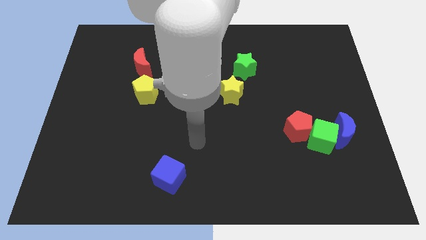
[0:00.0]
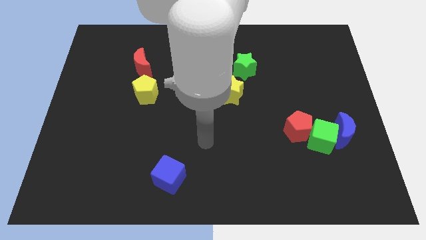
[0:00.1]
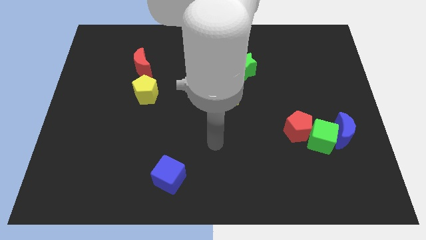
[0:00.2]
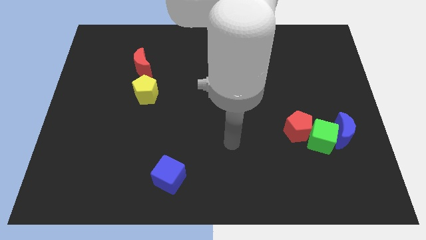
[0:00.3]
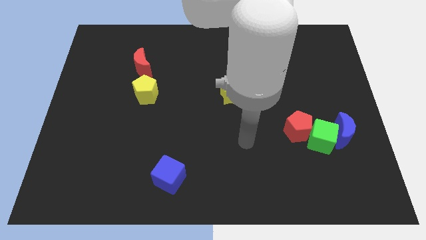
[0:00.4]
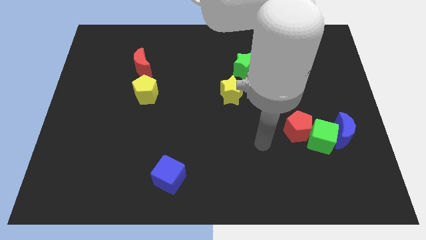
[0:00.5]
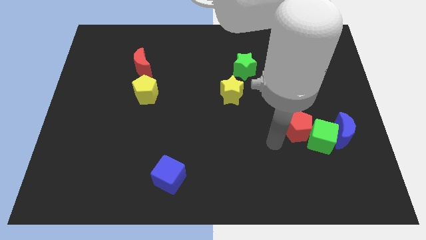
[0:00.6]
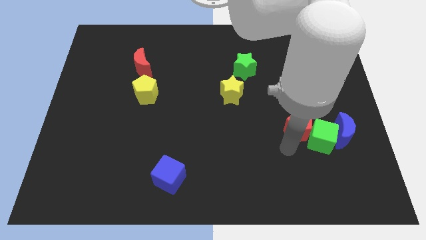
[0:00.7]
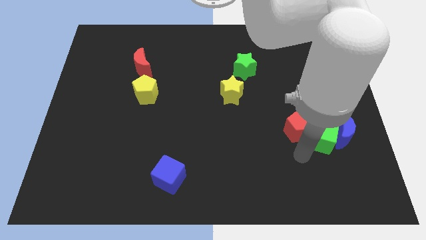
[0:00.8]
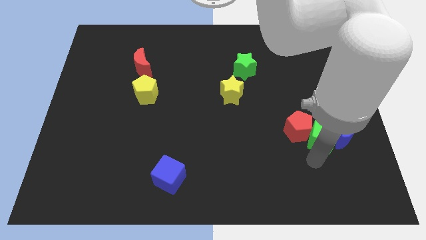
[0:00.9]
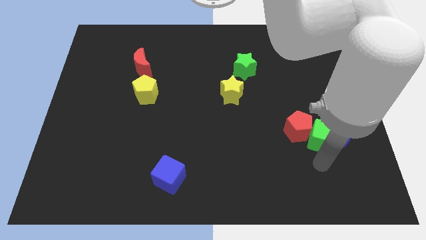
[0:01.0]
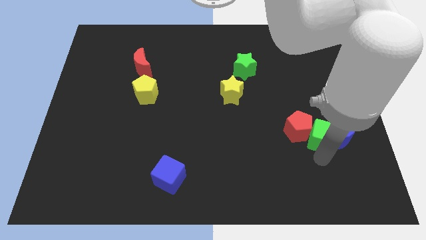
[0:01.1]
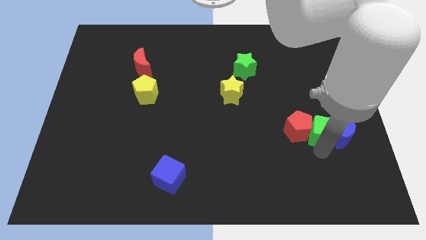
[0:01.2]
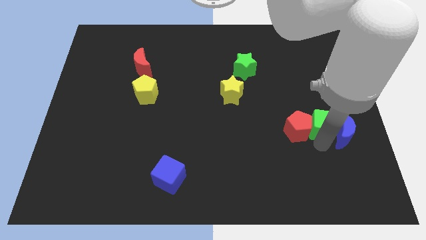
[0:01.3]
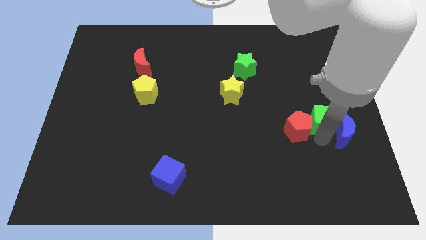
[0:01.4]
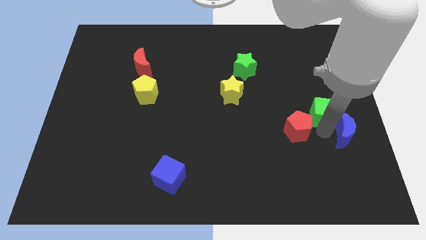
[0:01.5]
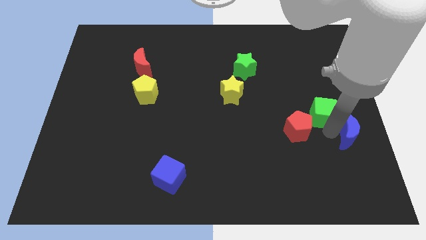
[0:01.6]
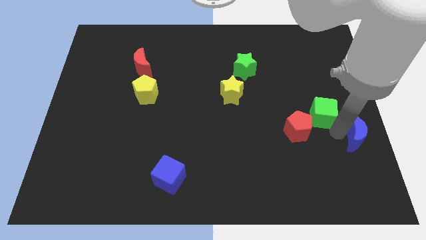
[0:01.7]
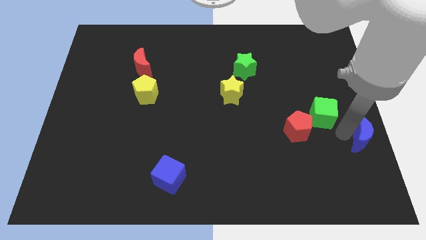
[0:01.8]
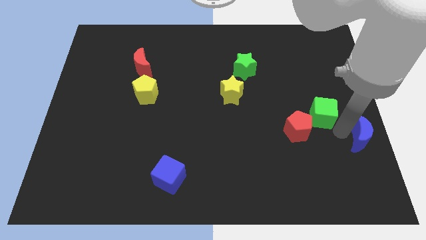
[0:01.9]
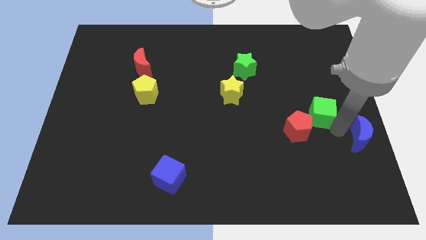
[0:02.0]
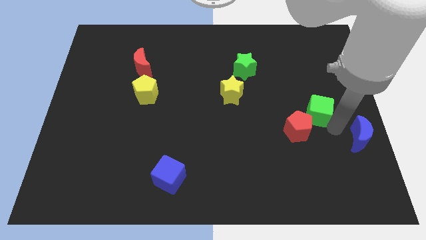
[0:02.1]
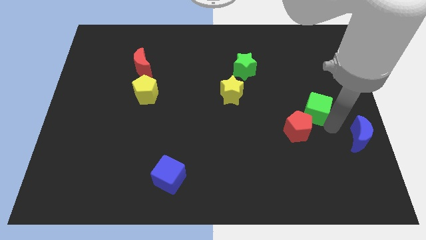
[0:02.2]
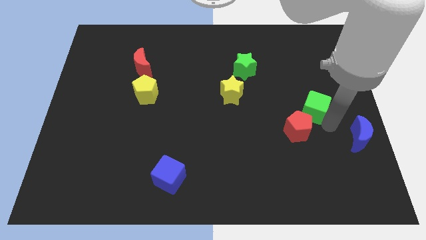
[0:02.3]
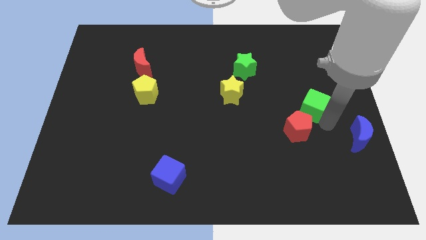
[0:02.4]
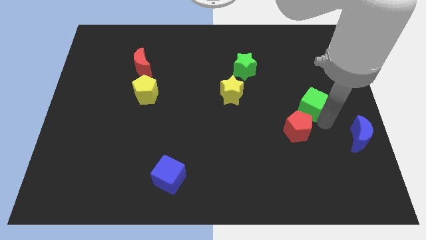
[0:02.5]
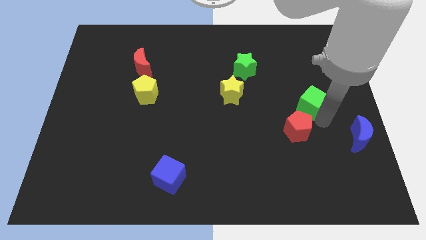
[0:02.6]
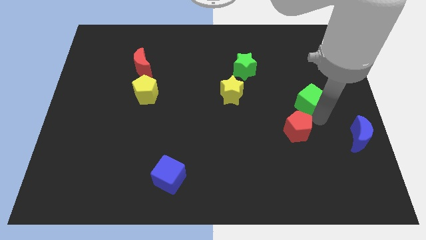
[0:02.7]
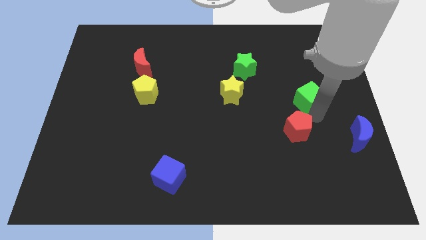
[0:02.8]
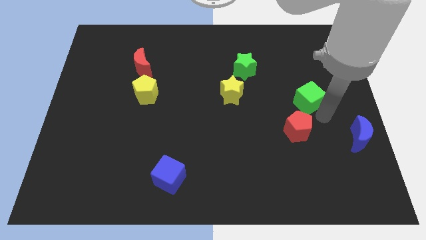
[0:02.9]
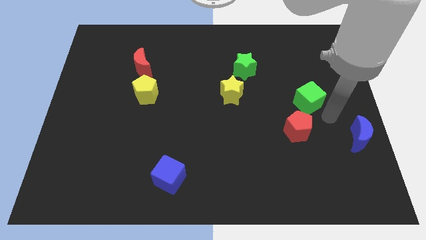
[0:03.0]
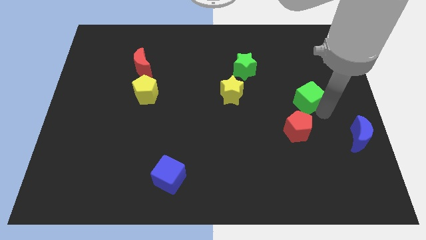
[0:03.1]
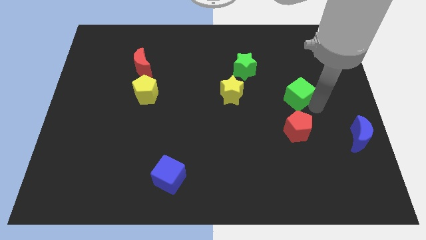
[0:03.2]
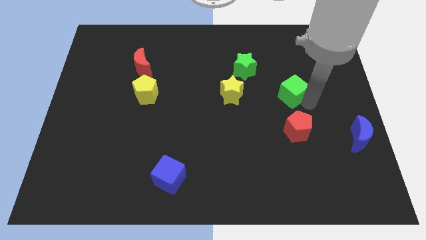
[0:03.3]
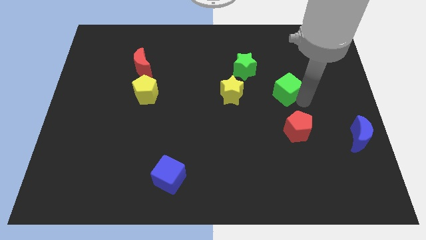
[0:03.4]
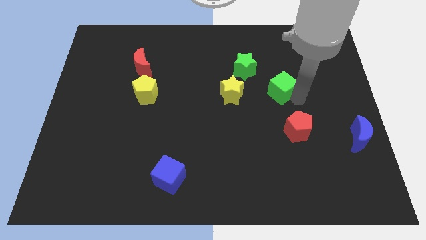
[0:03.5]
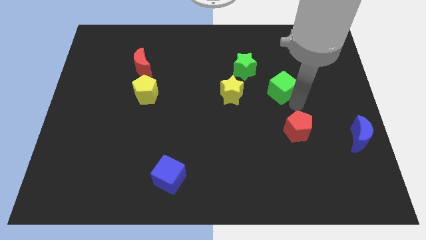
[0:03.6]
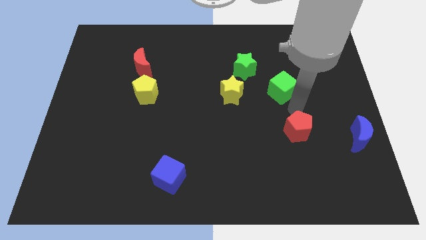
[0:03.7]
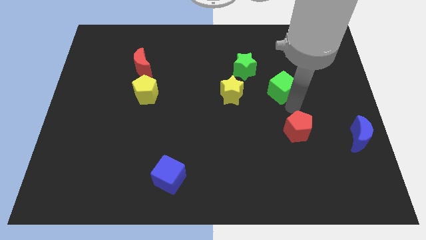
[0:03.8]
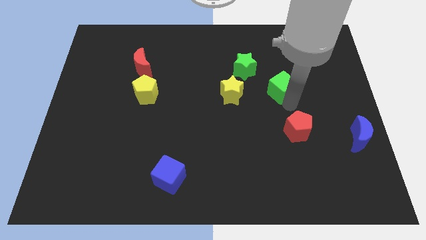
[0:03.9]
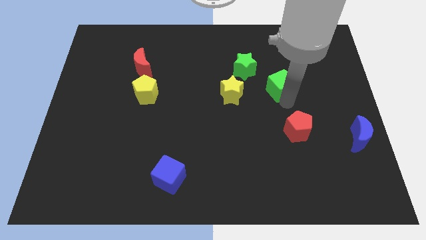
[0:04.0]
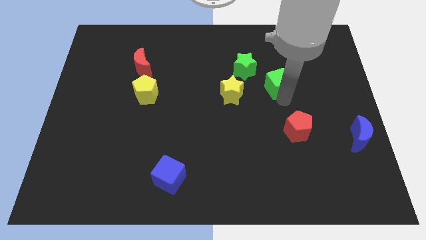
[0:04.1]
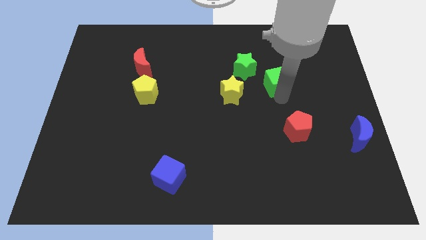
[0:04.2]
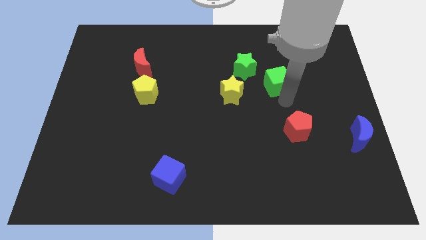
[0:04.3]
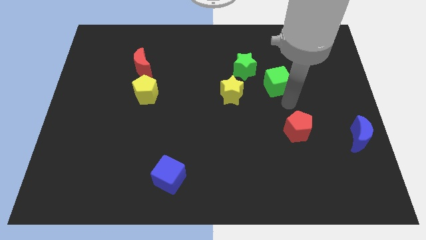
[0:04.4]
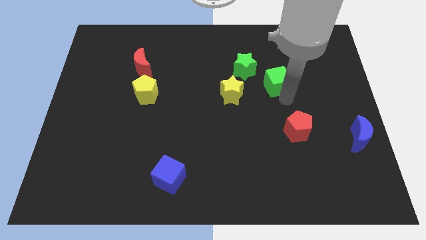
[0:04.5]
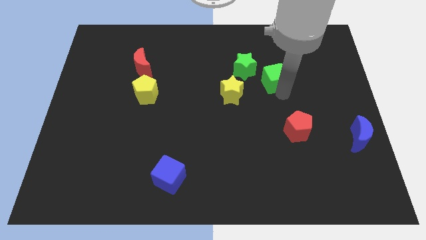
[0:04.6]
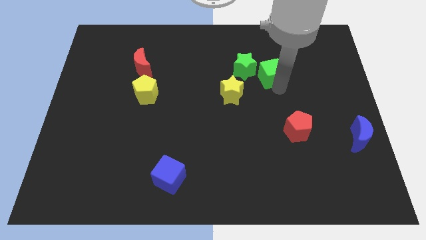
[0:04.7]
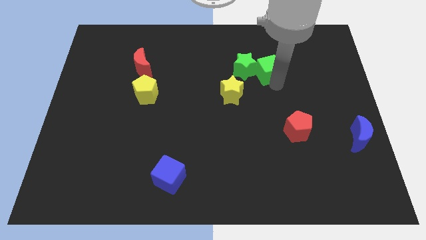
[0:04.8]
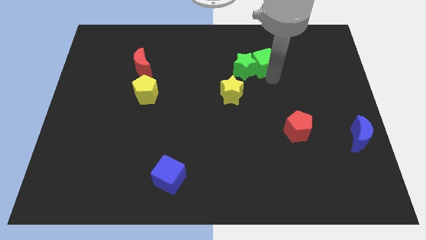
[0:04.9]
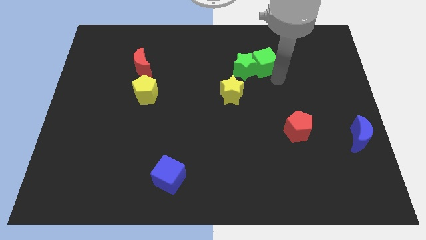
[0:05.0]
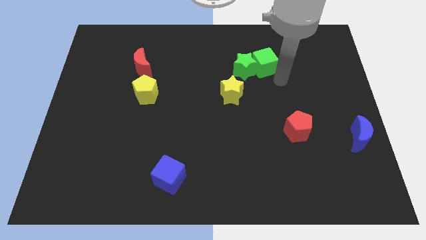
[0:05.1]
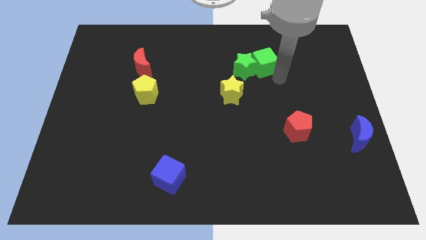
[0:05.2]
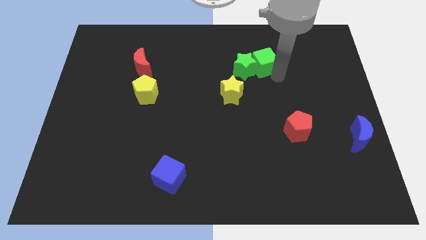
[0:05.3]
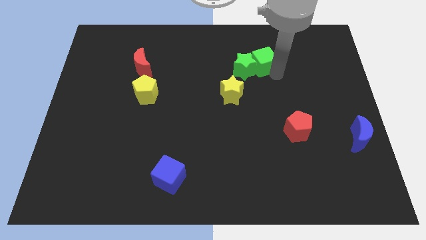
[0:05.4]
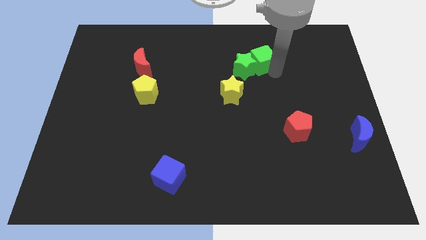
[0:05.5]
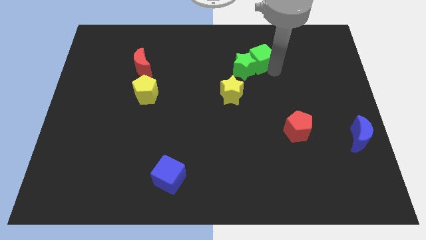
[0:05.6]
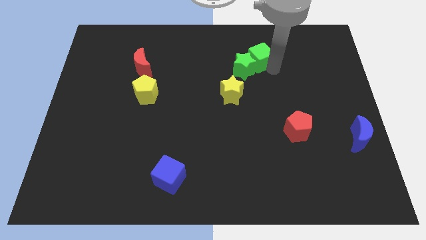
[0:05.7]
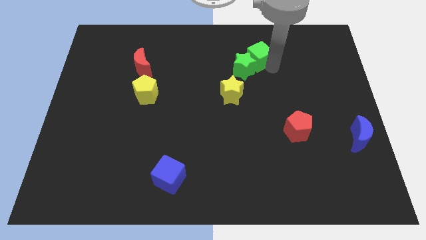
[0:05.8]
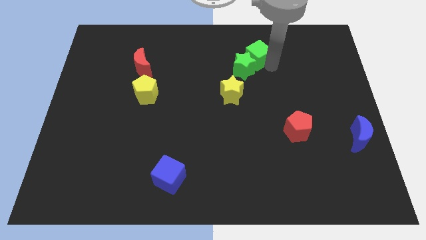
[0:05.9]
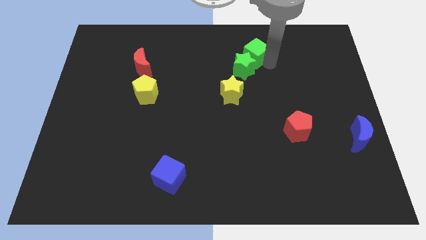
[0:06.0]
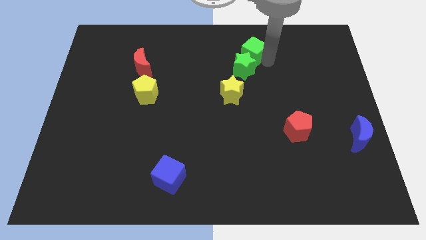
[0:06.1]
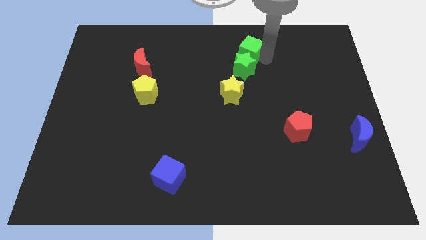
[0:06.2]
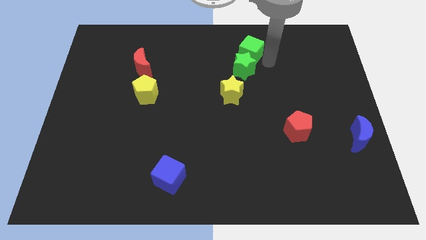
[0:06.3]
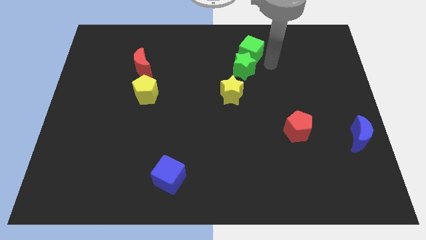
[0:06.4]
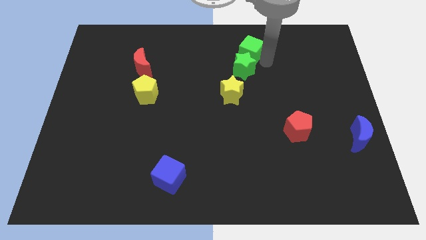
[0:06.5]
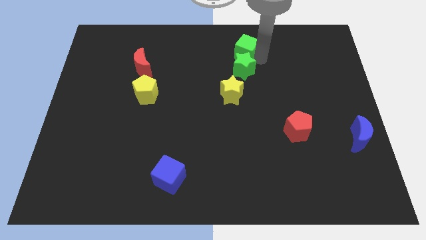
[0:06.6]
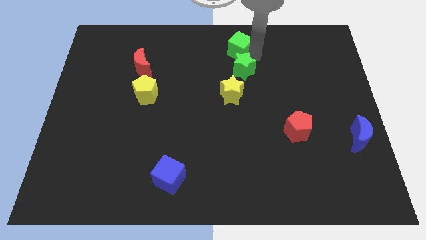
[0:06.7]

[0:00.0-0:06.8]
push the green cube to the top
